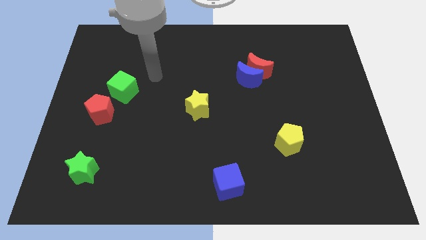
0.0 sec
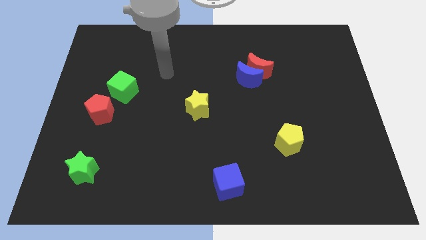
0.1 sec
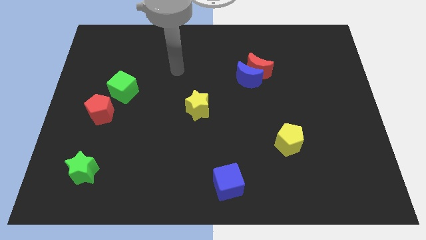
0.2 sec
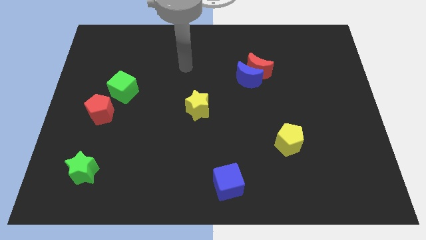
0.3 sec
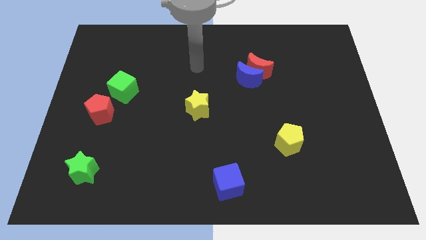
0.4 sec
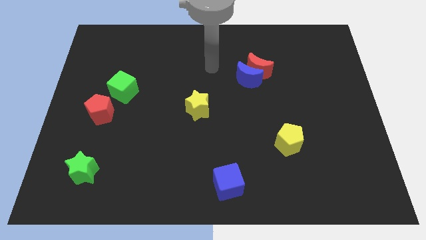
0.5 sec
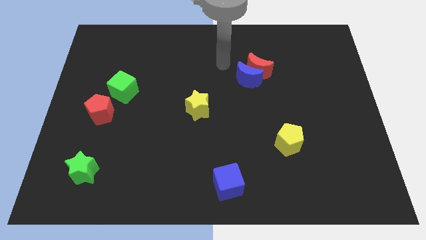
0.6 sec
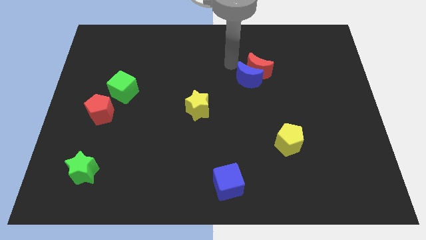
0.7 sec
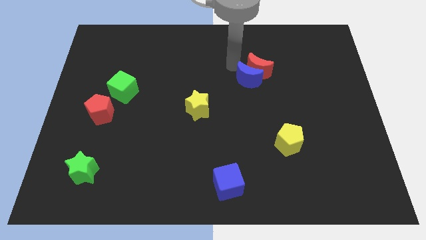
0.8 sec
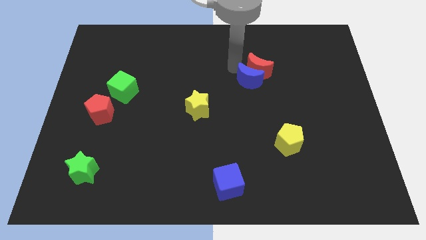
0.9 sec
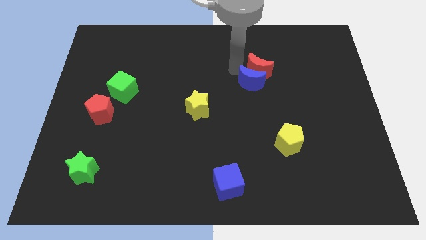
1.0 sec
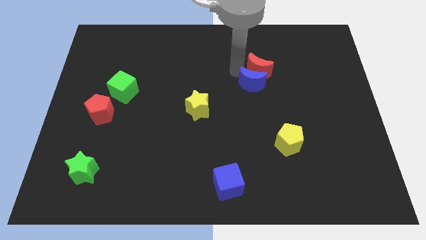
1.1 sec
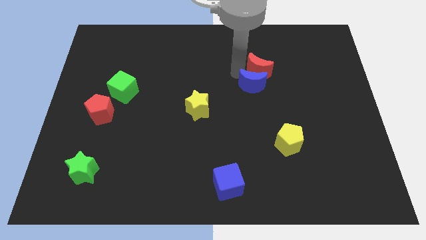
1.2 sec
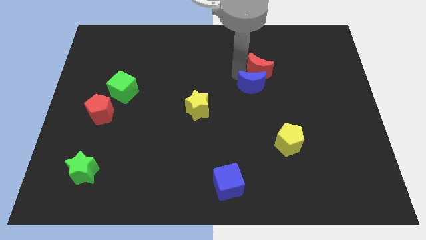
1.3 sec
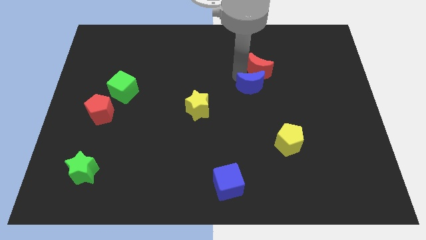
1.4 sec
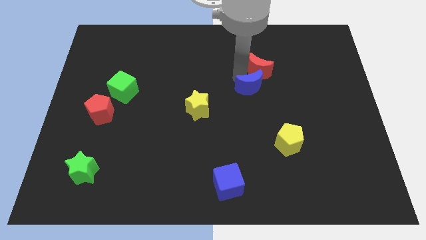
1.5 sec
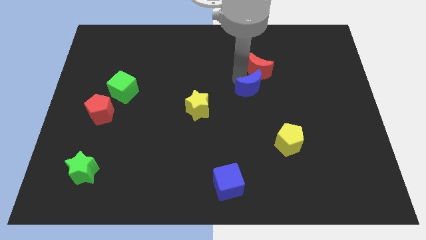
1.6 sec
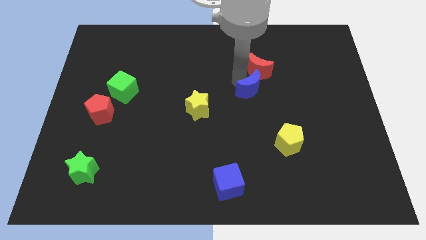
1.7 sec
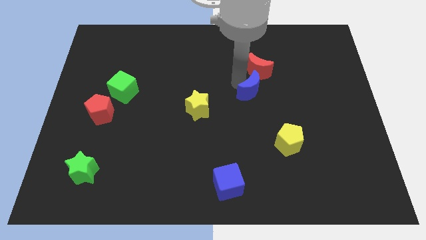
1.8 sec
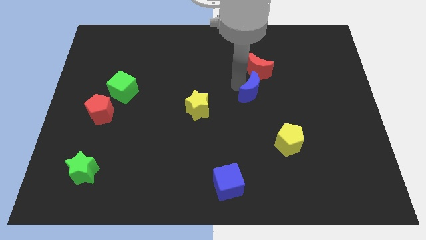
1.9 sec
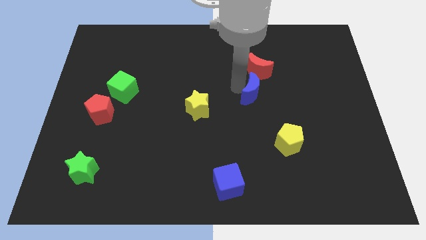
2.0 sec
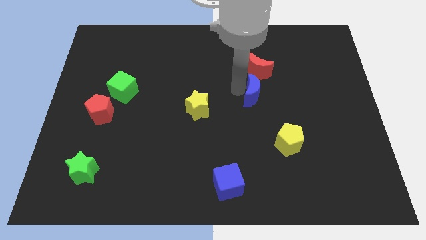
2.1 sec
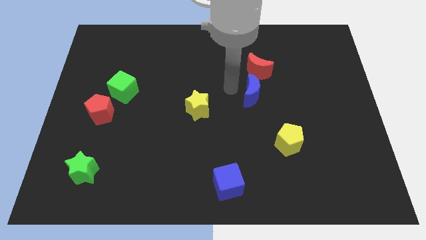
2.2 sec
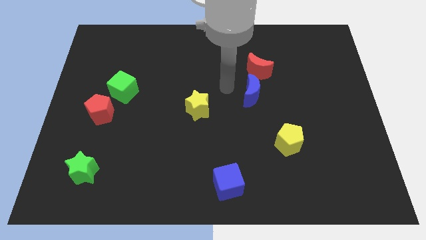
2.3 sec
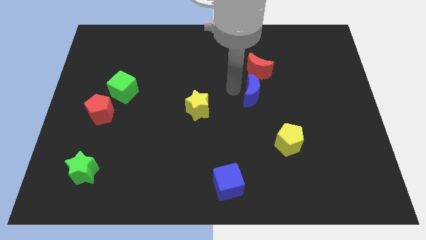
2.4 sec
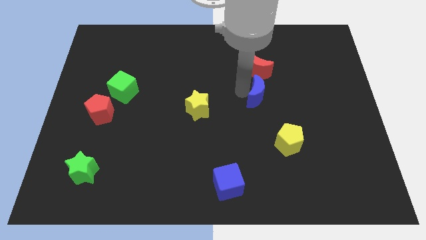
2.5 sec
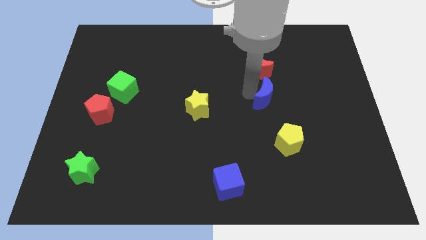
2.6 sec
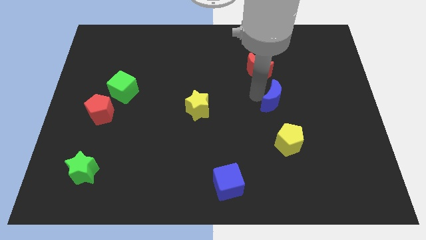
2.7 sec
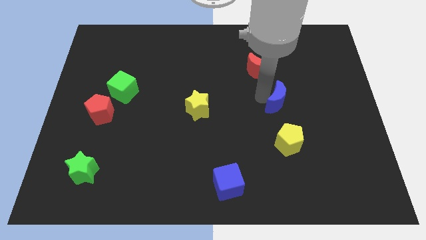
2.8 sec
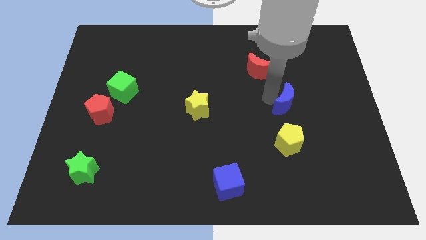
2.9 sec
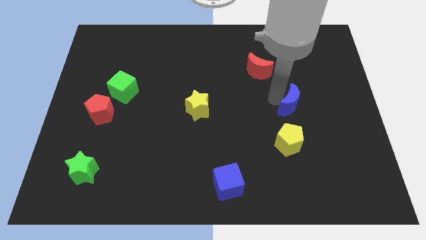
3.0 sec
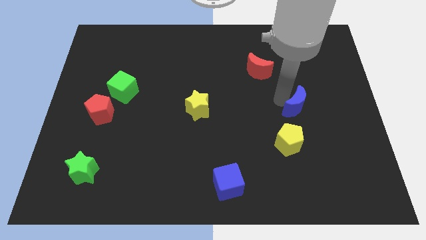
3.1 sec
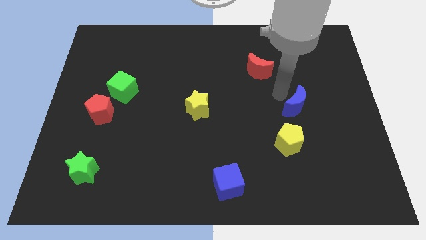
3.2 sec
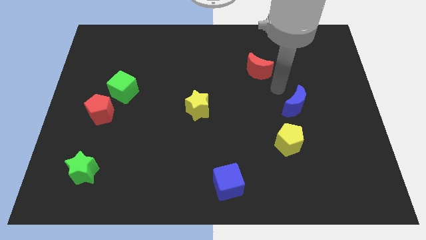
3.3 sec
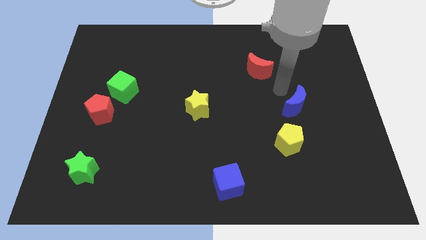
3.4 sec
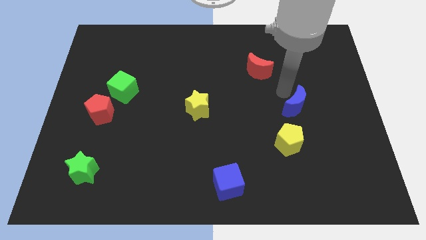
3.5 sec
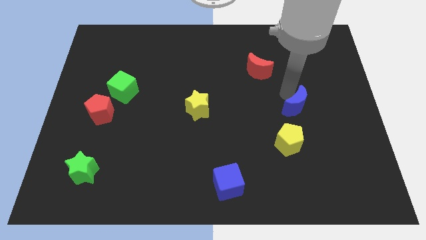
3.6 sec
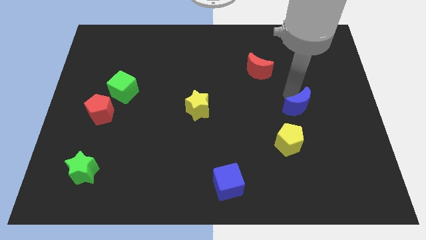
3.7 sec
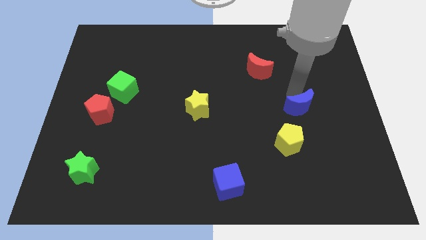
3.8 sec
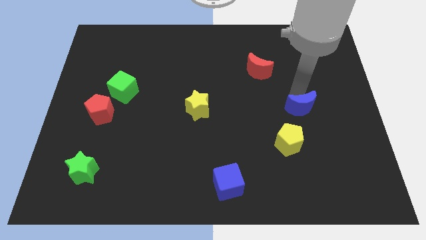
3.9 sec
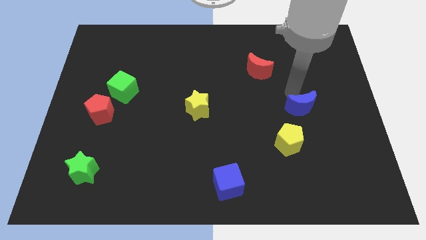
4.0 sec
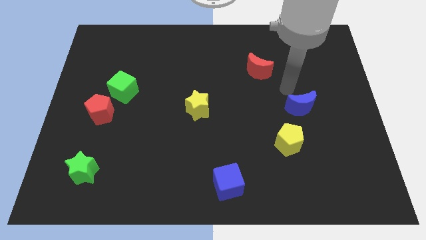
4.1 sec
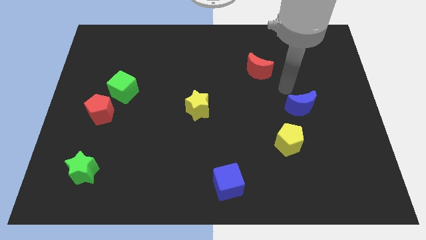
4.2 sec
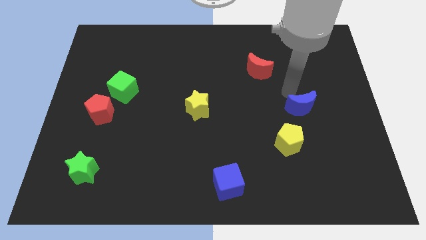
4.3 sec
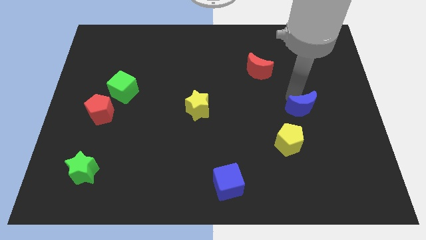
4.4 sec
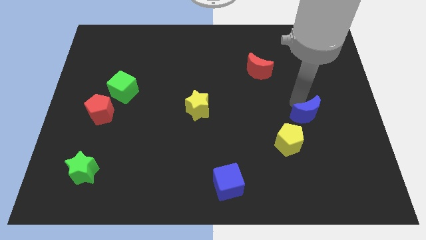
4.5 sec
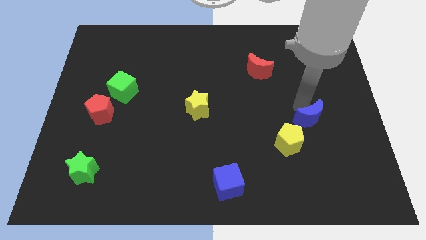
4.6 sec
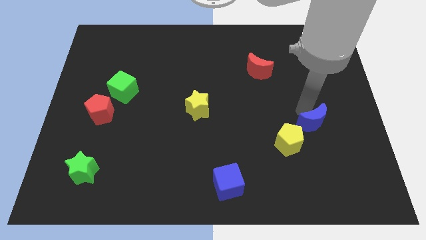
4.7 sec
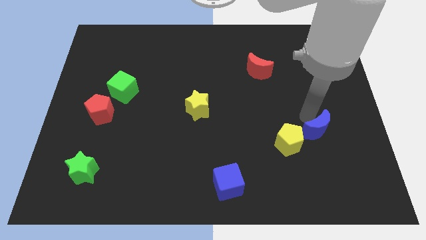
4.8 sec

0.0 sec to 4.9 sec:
push the blue moon just right of the yellow pentagon

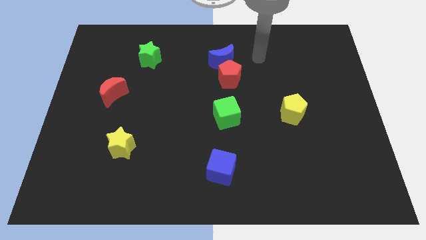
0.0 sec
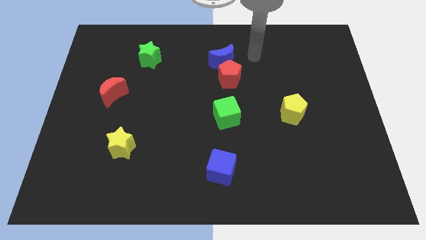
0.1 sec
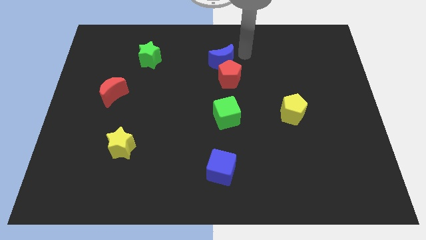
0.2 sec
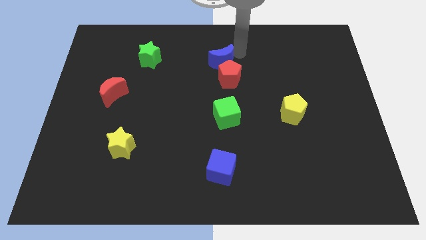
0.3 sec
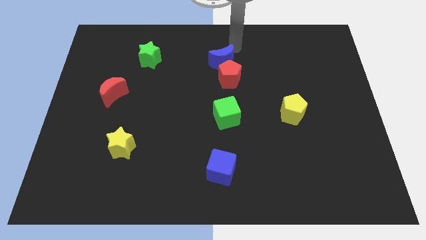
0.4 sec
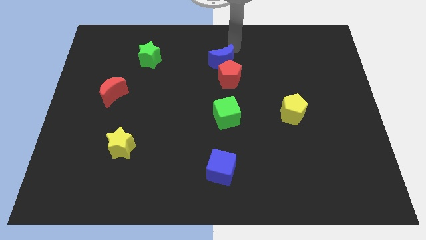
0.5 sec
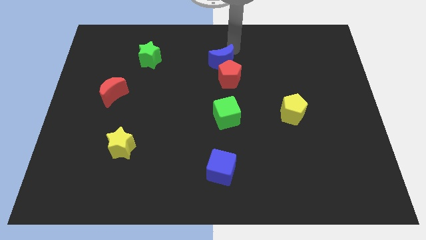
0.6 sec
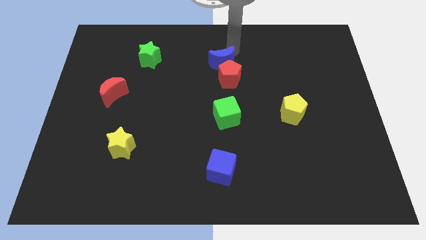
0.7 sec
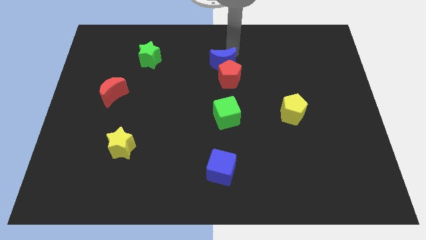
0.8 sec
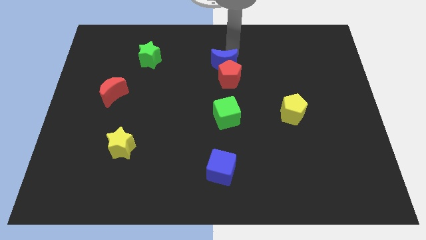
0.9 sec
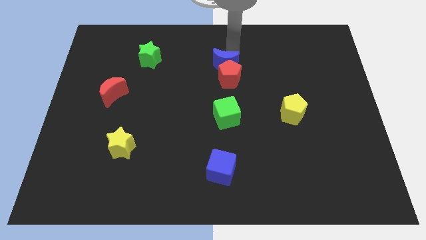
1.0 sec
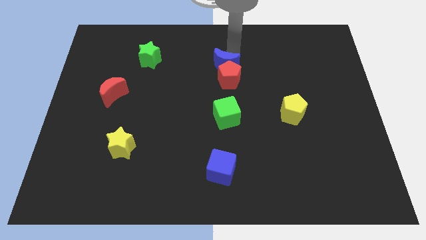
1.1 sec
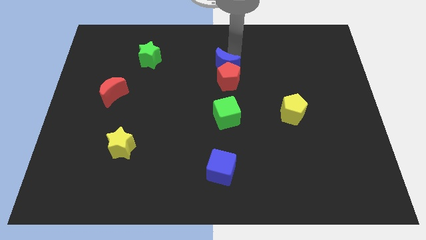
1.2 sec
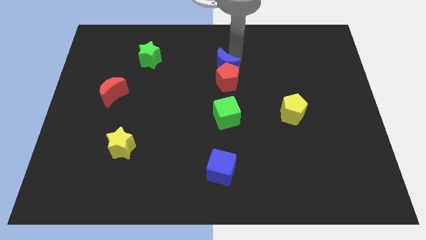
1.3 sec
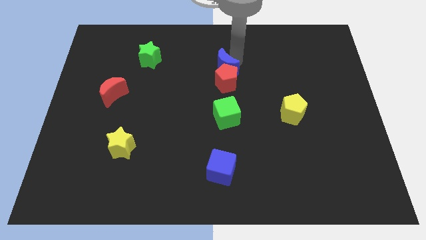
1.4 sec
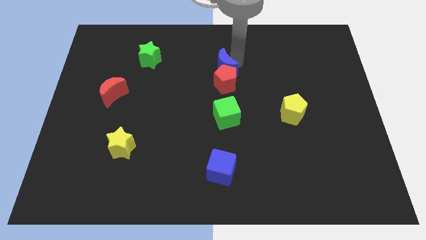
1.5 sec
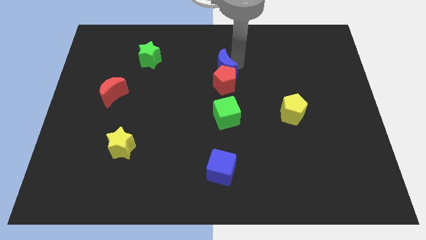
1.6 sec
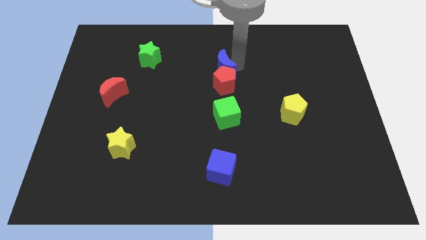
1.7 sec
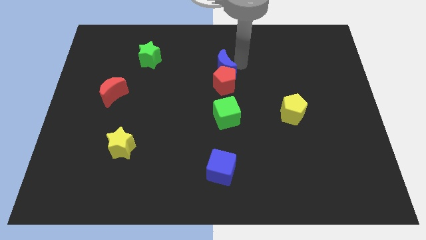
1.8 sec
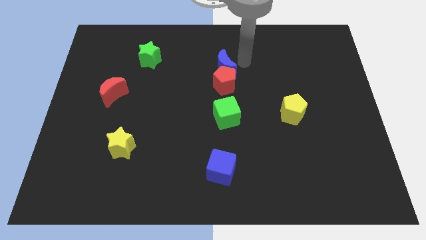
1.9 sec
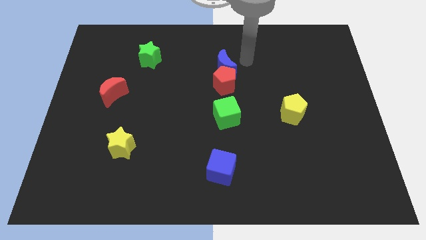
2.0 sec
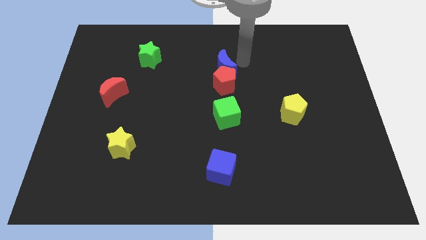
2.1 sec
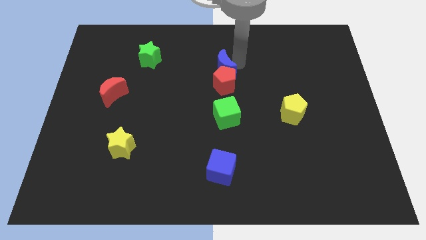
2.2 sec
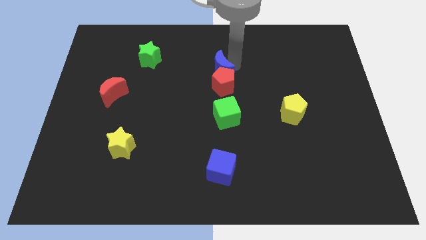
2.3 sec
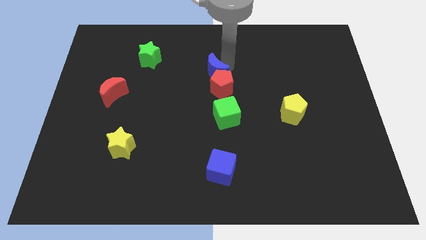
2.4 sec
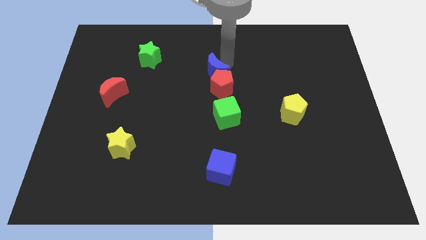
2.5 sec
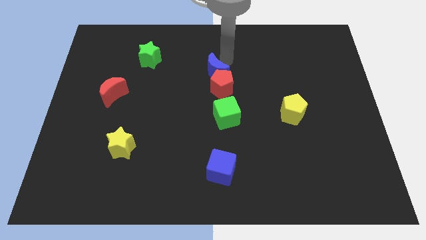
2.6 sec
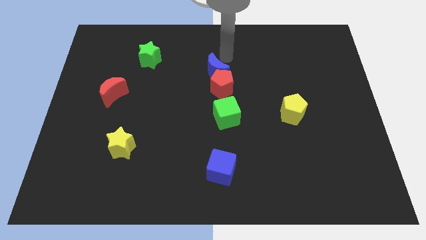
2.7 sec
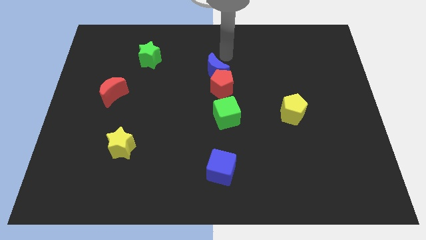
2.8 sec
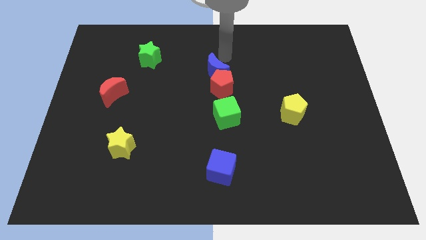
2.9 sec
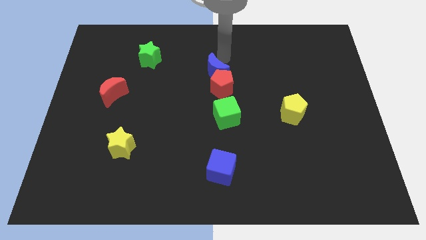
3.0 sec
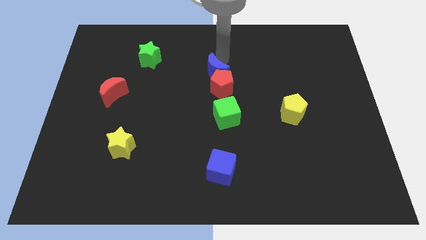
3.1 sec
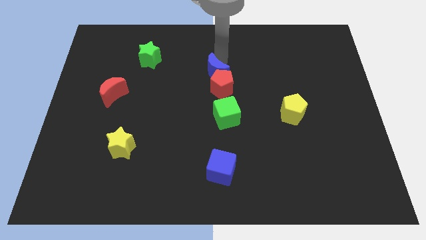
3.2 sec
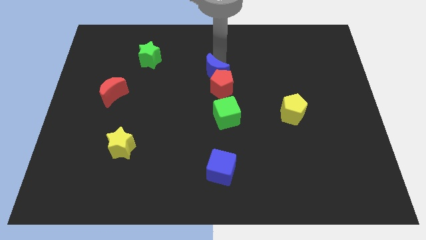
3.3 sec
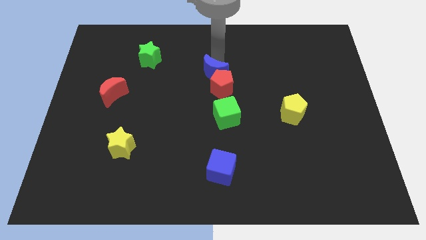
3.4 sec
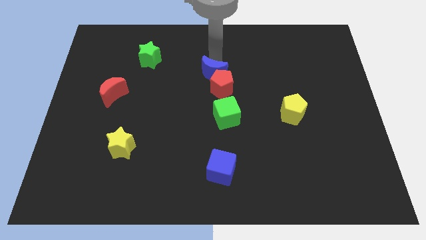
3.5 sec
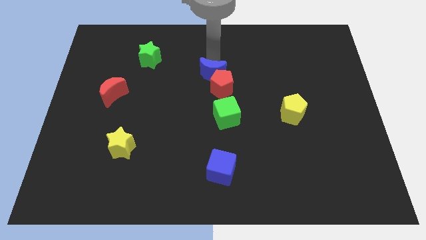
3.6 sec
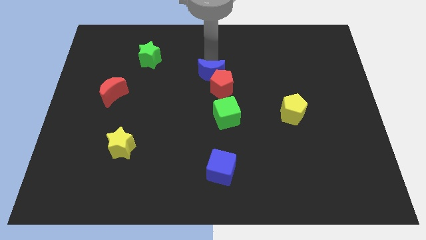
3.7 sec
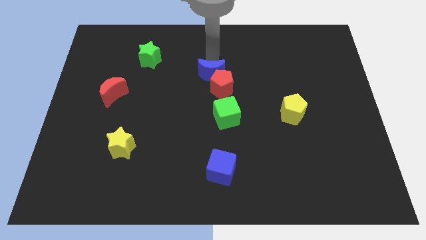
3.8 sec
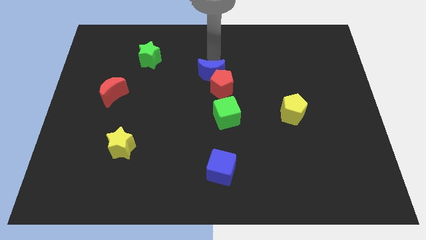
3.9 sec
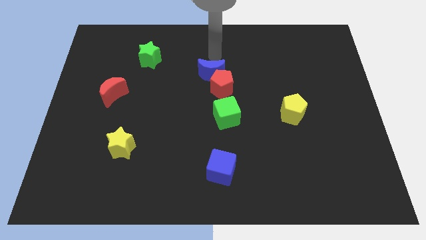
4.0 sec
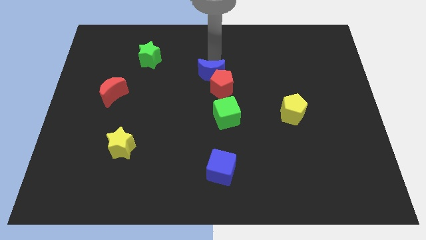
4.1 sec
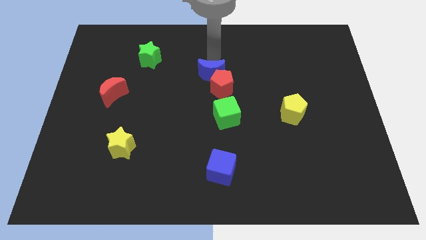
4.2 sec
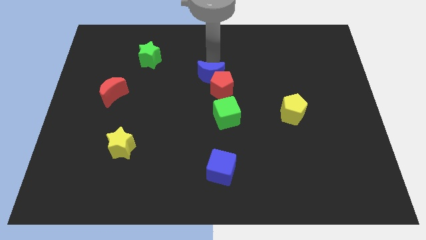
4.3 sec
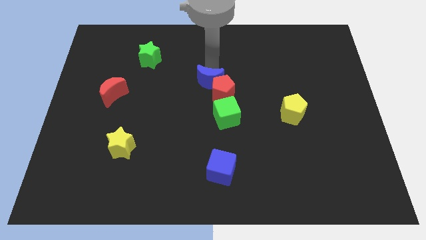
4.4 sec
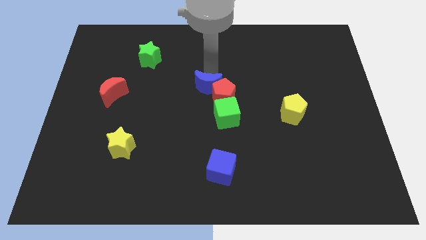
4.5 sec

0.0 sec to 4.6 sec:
slide the blue moon diagonally up and to the left of the green cube
